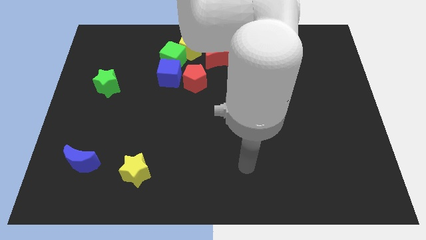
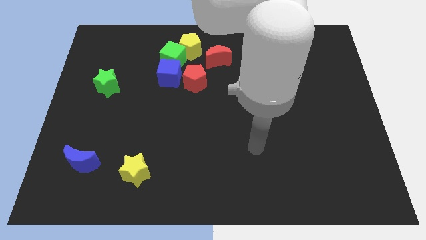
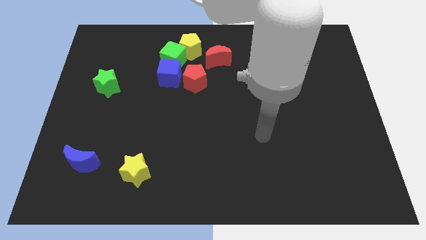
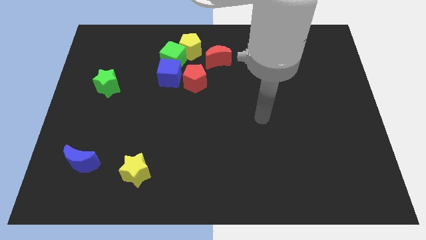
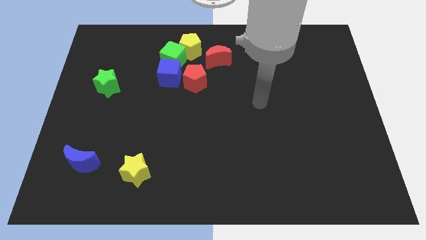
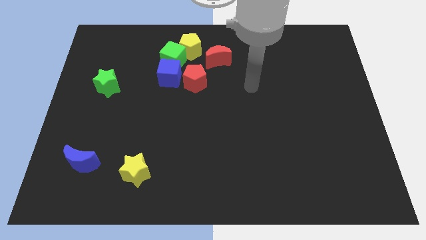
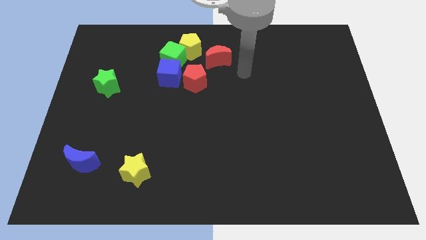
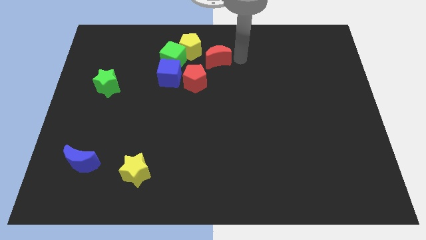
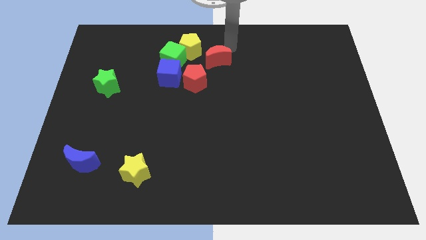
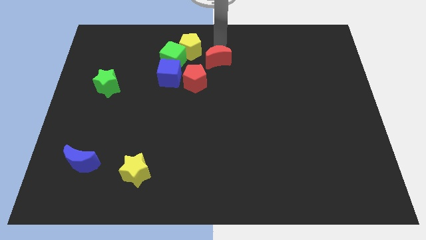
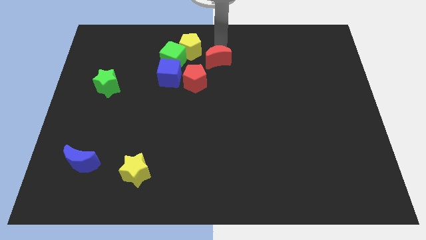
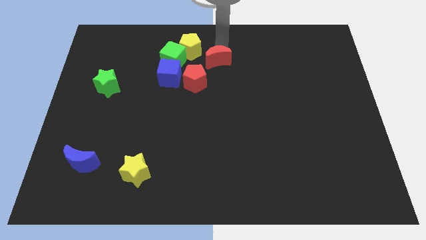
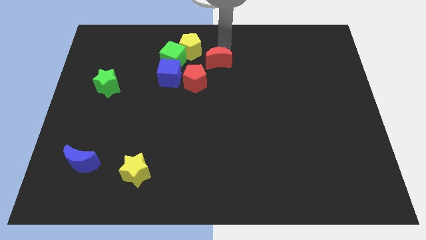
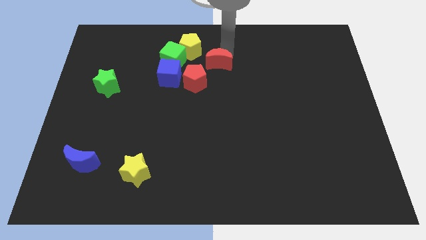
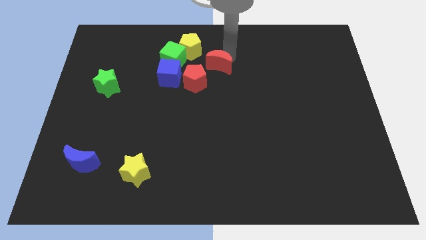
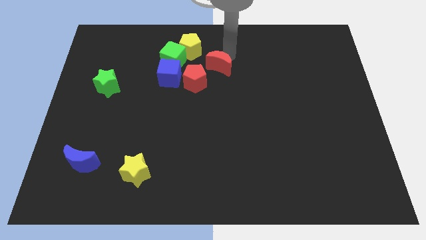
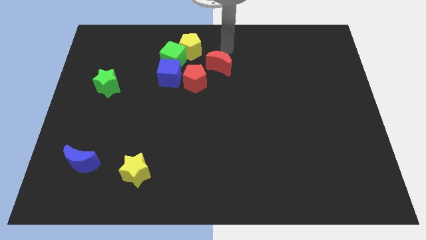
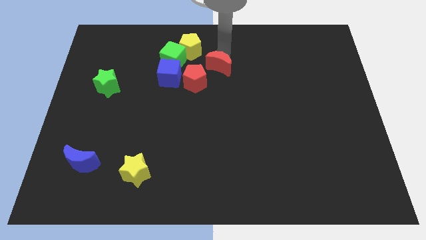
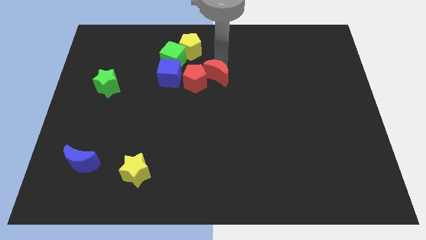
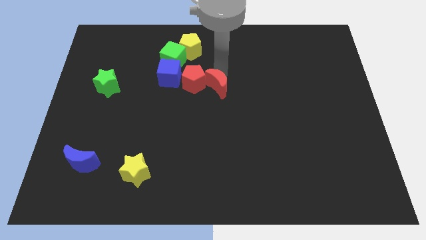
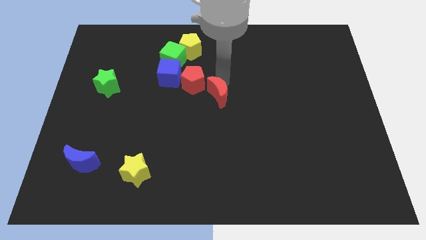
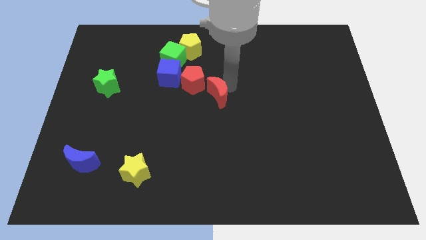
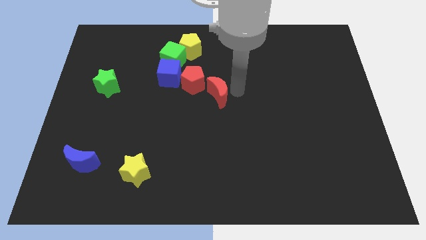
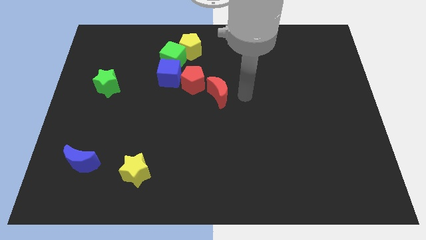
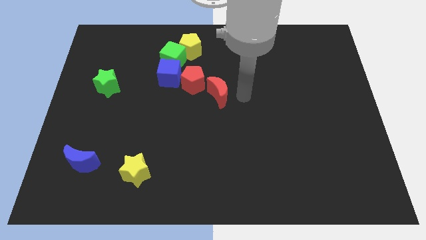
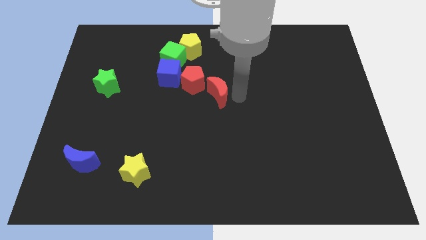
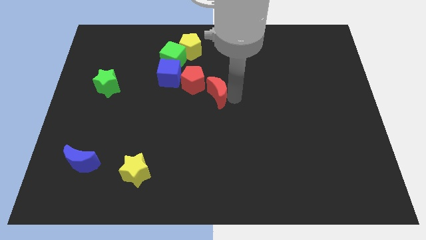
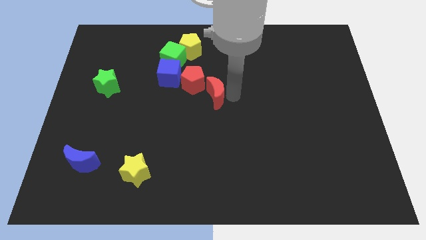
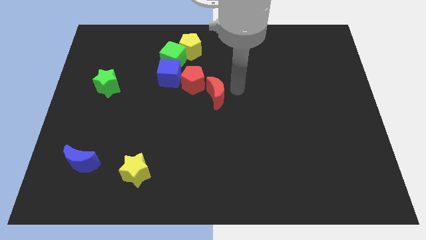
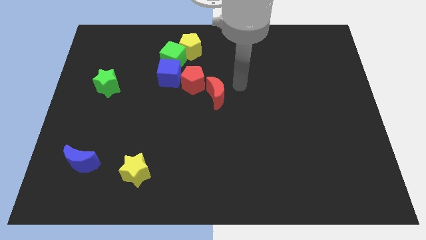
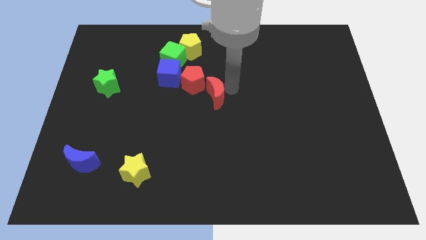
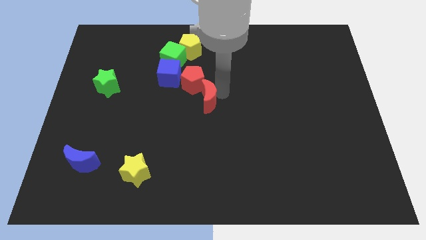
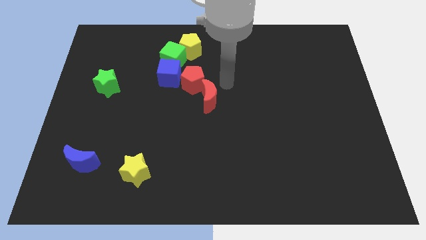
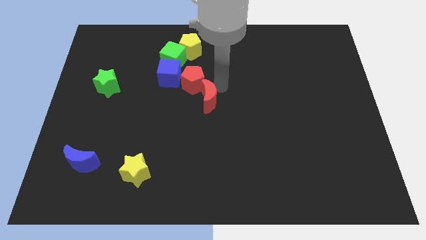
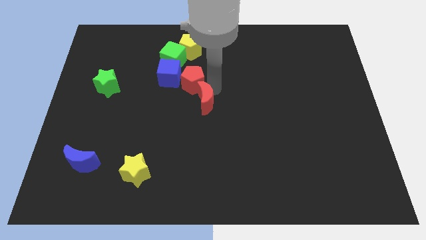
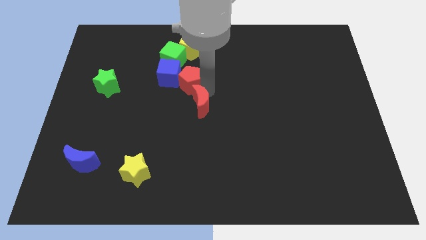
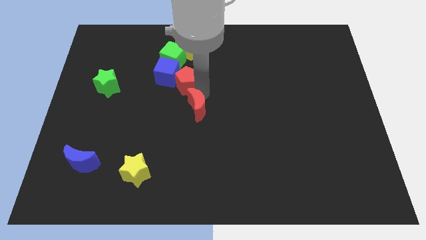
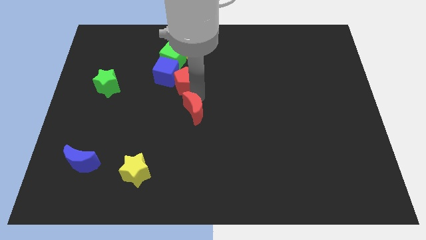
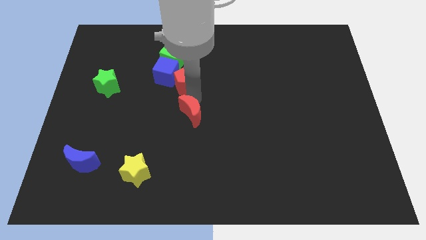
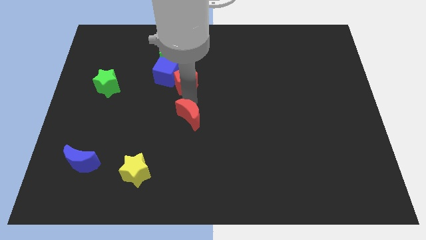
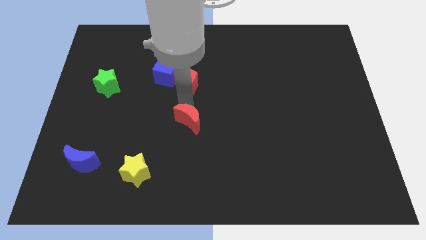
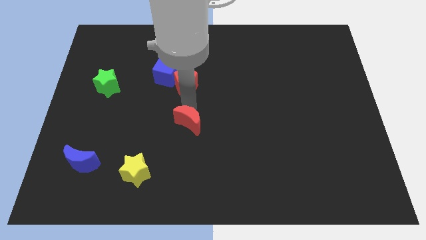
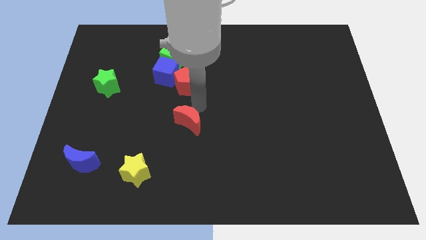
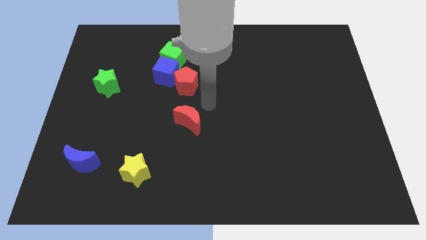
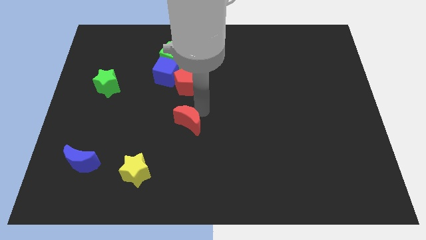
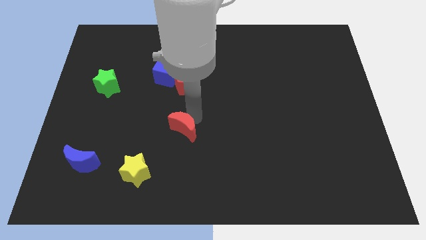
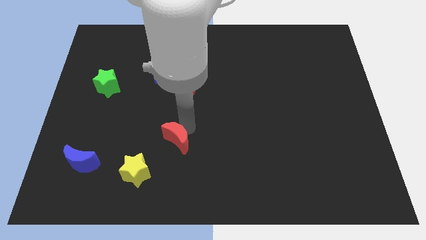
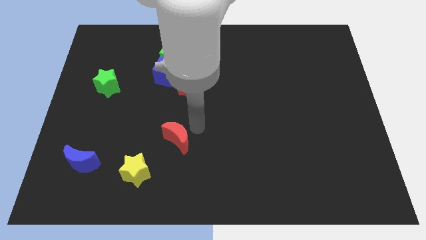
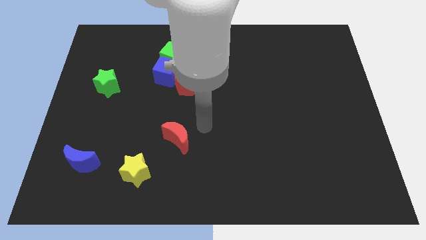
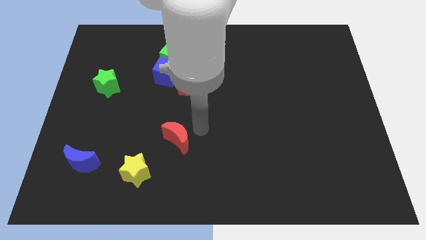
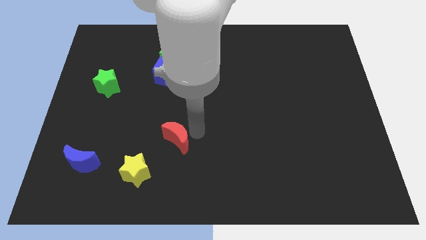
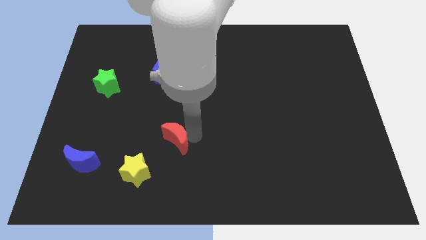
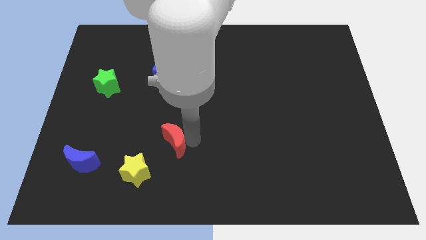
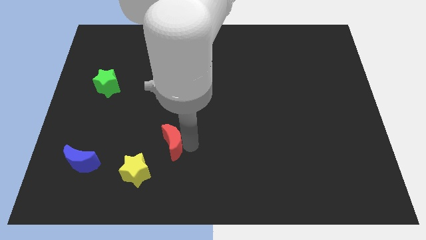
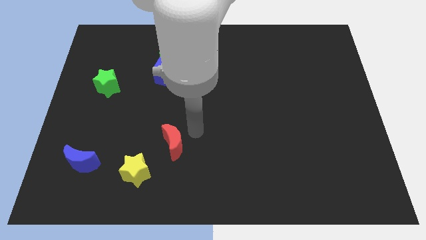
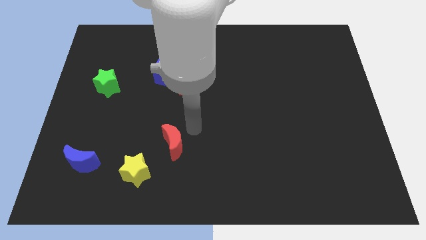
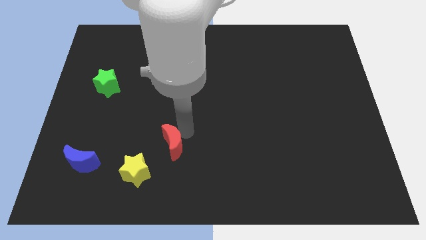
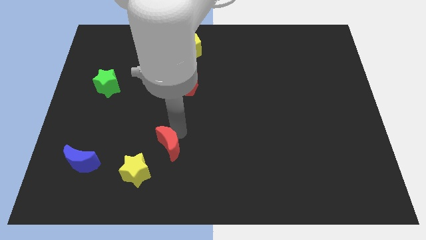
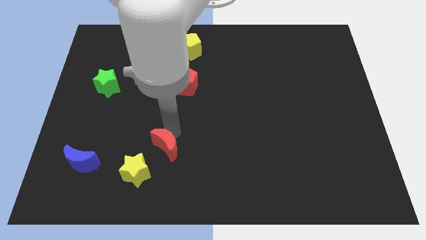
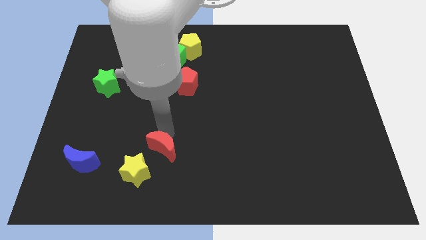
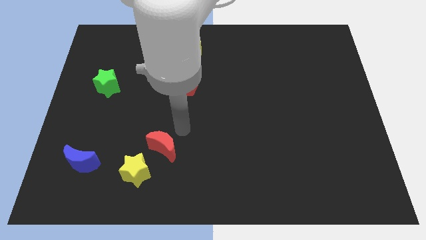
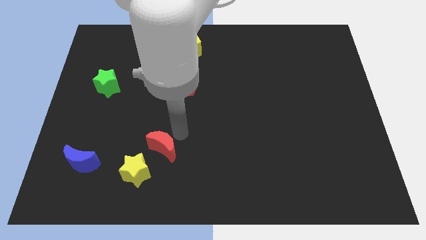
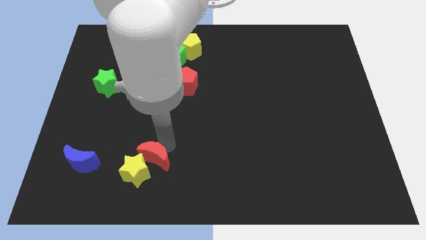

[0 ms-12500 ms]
move the red moon next to the yellow star

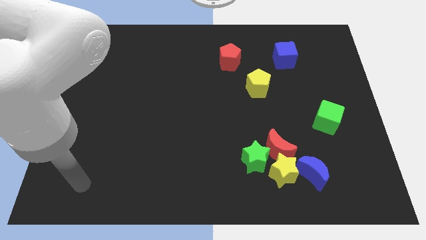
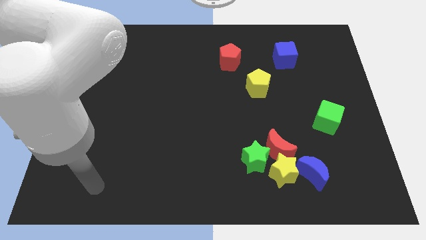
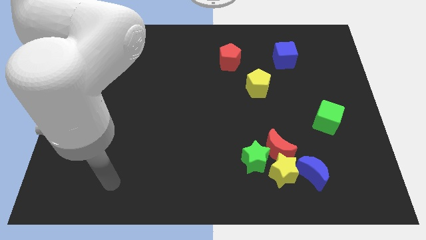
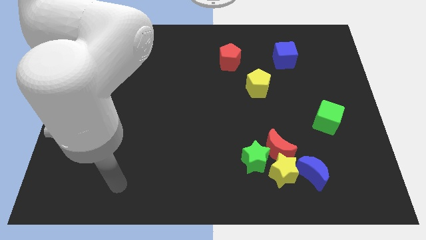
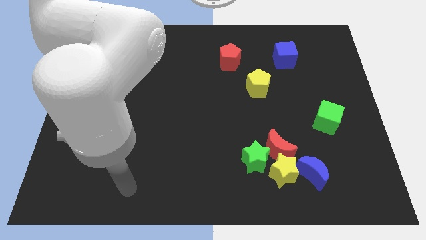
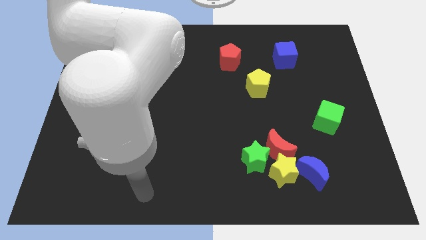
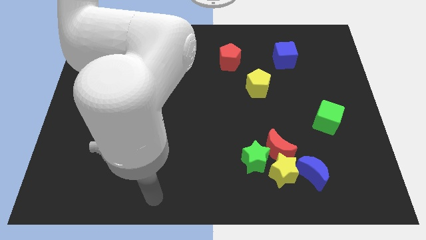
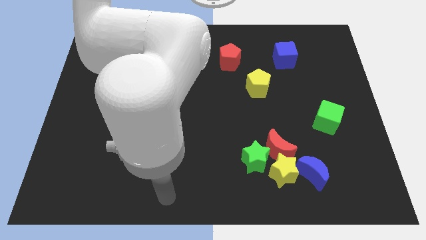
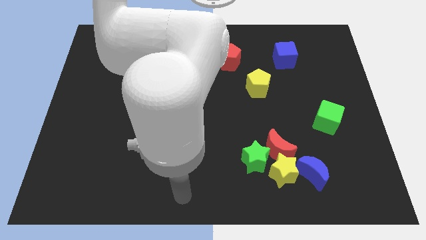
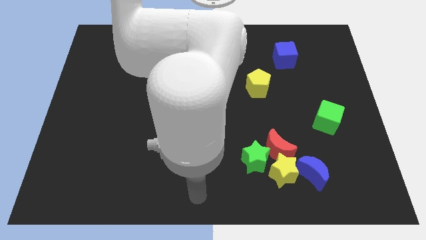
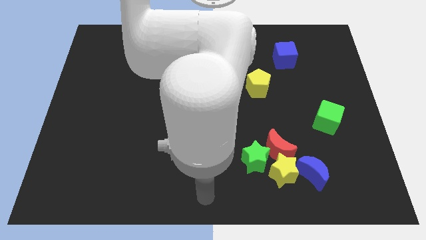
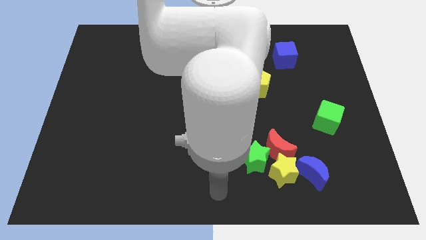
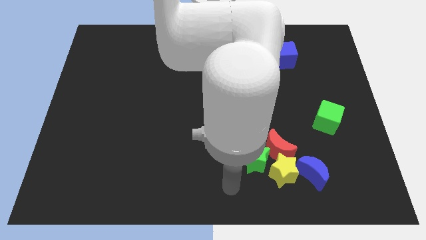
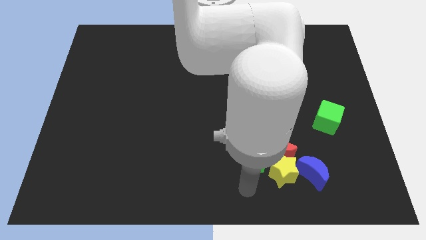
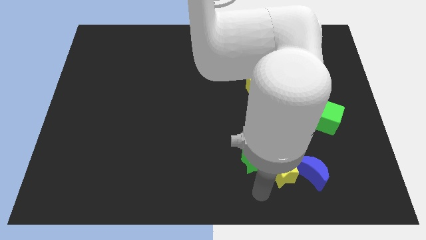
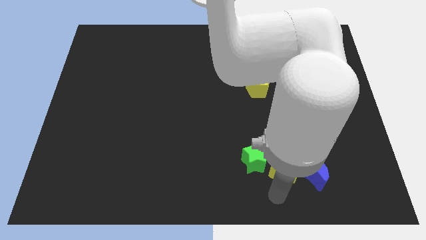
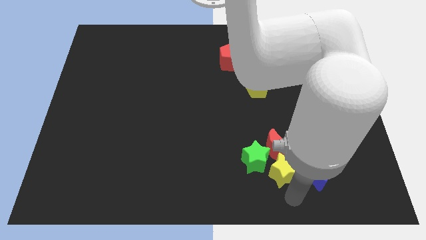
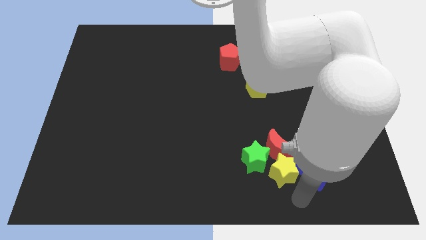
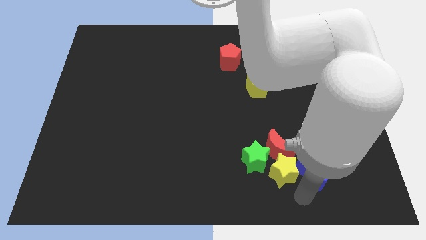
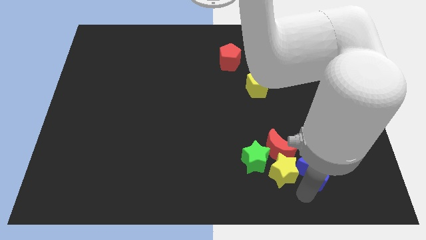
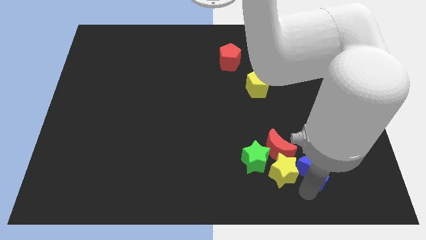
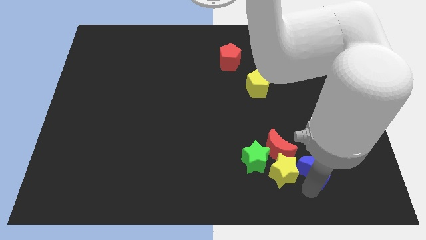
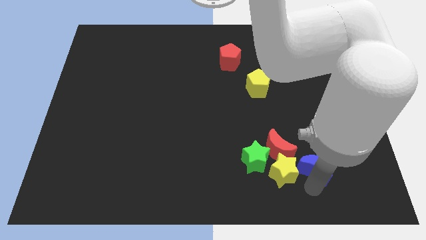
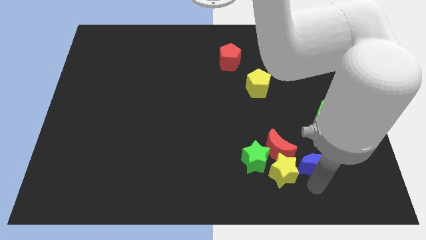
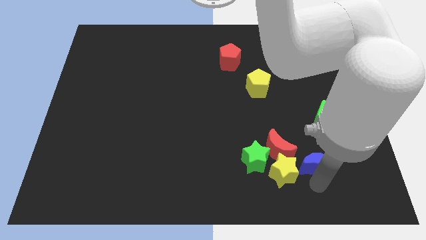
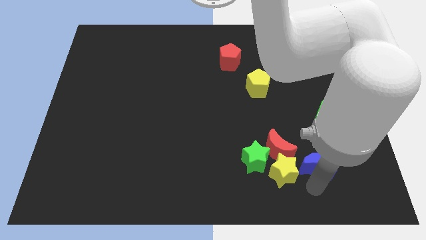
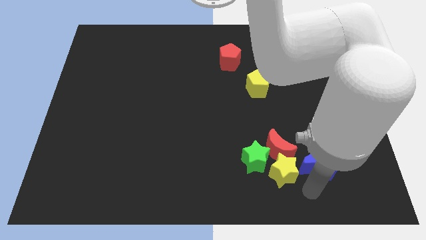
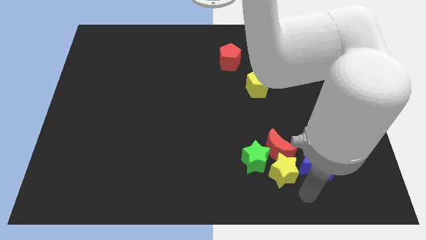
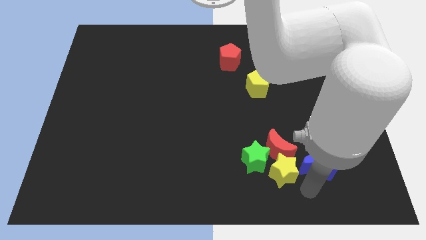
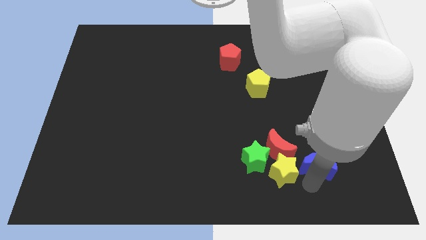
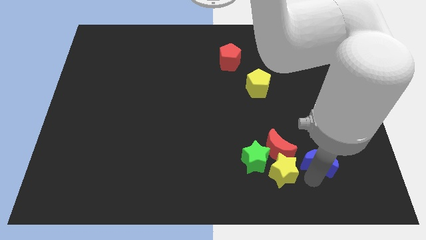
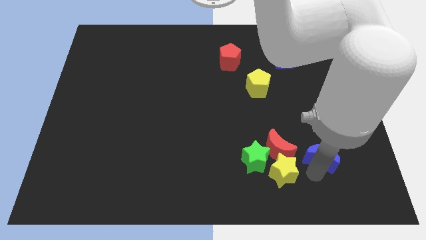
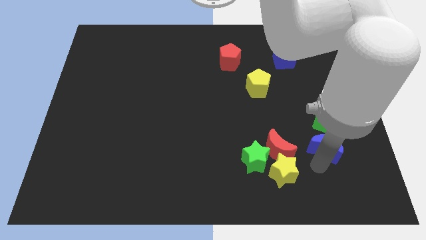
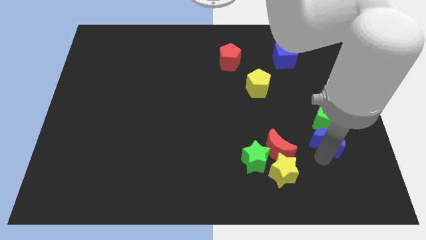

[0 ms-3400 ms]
slide the blue moon next to the green cube
